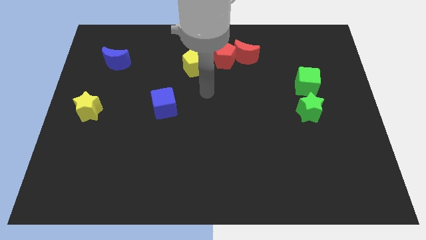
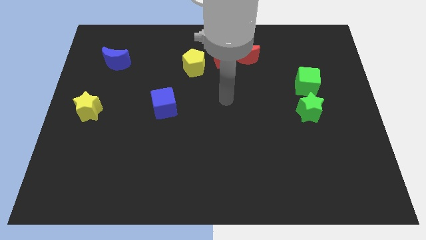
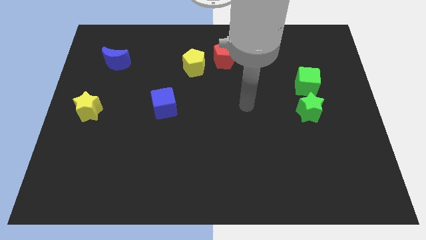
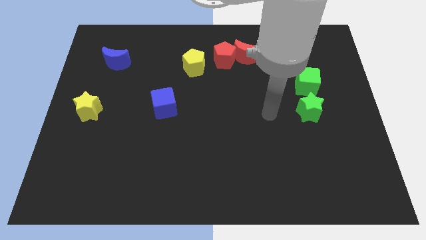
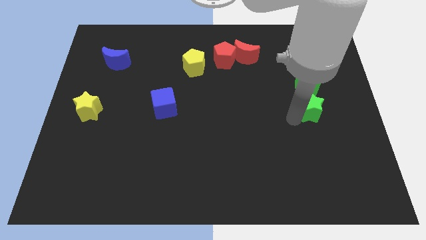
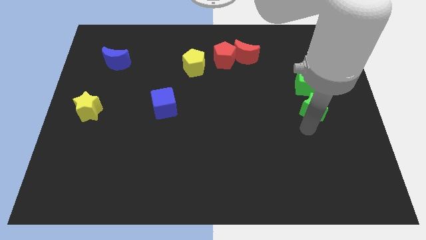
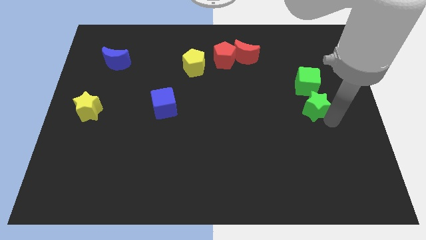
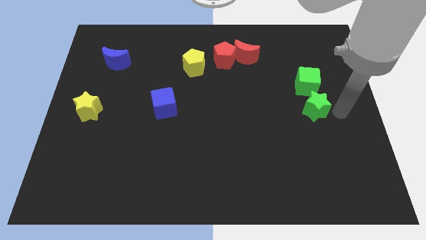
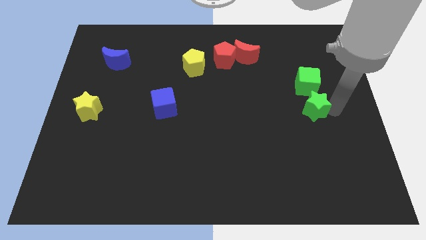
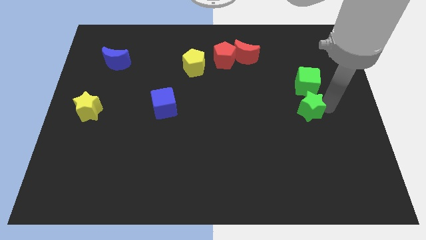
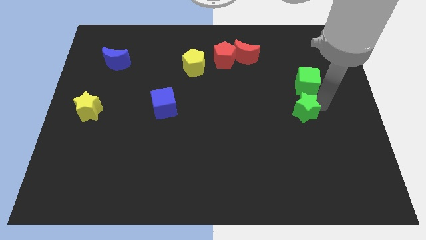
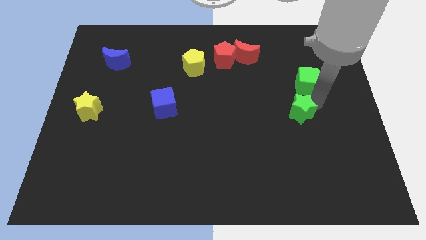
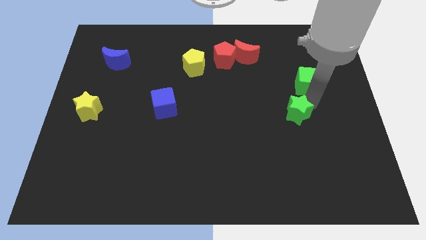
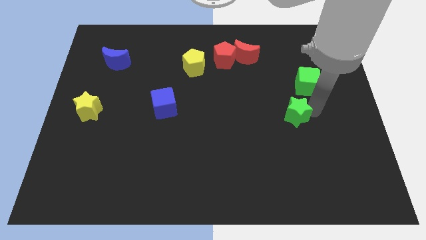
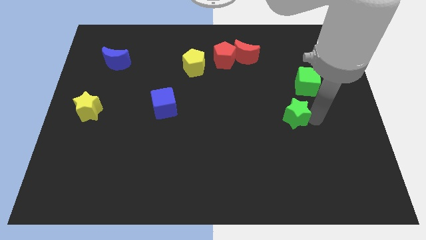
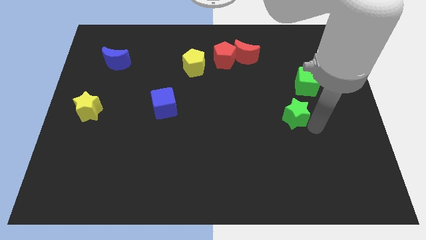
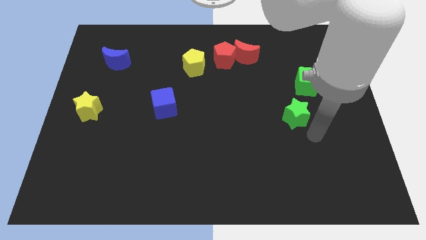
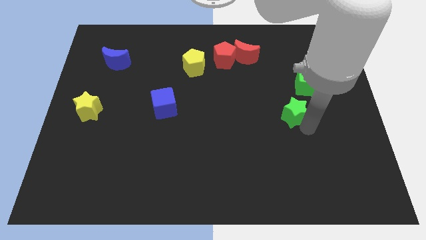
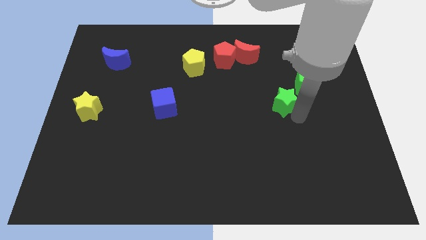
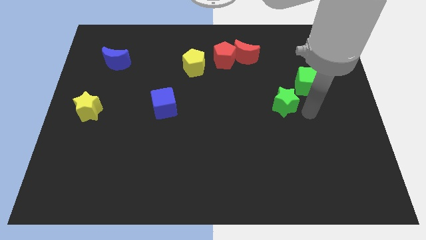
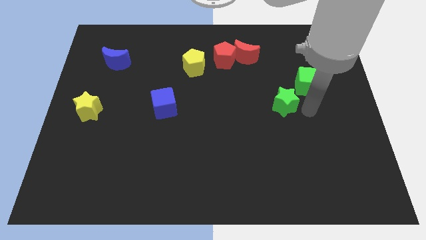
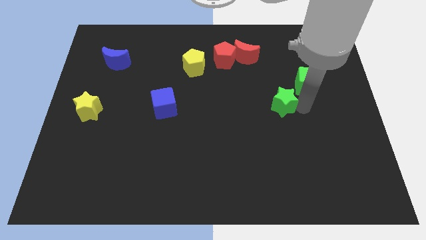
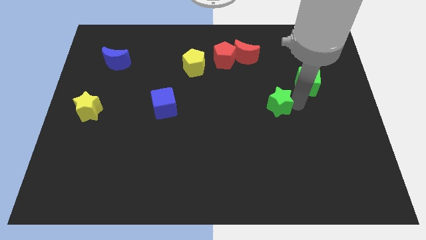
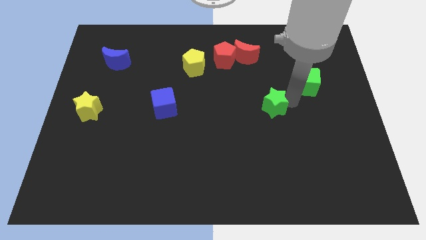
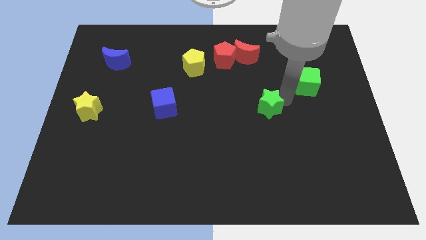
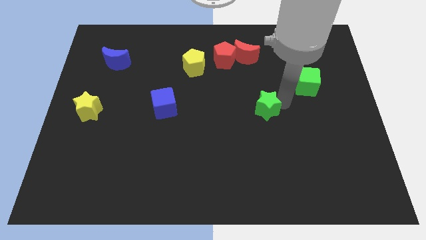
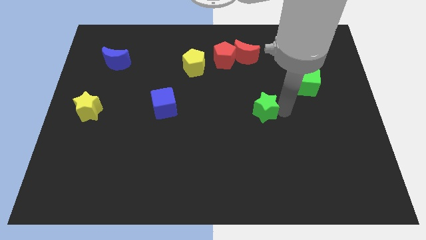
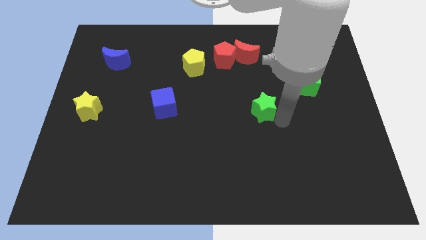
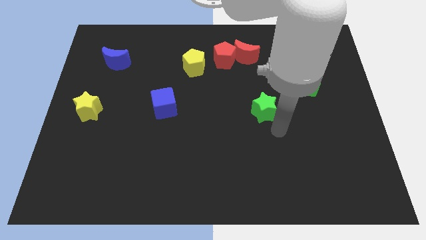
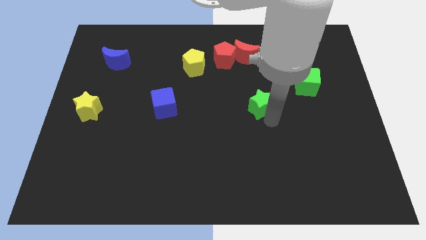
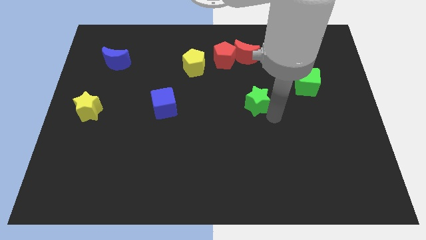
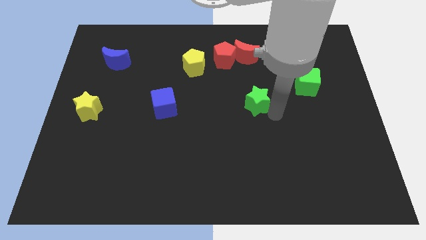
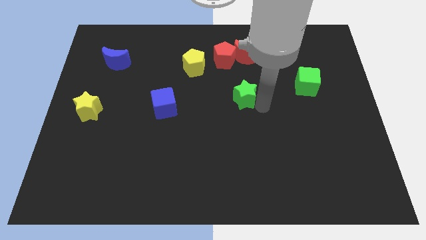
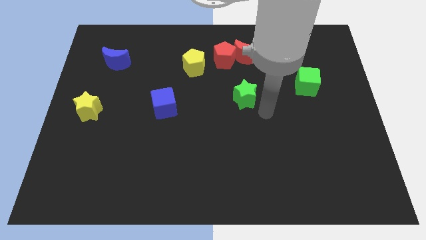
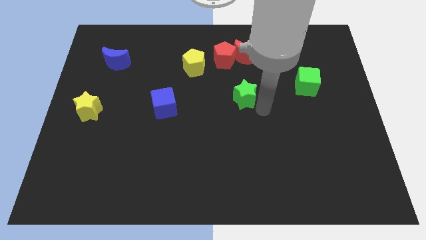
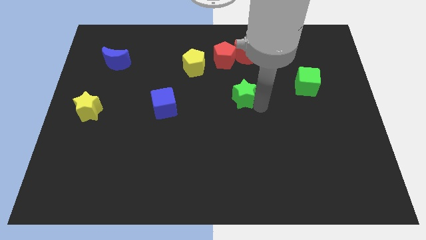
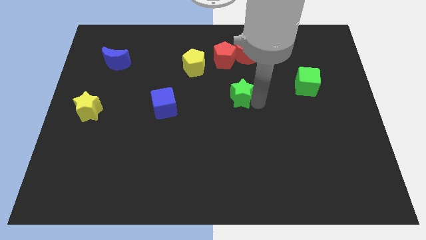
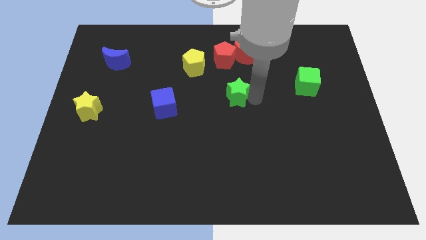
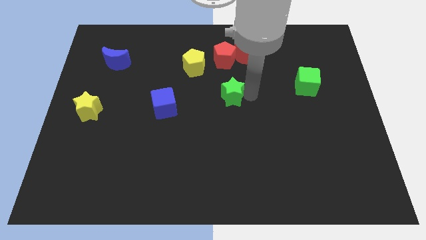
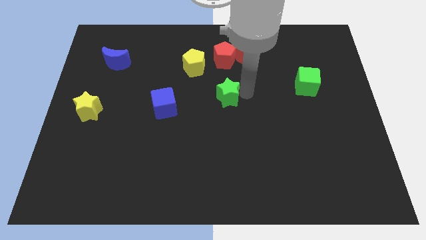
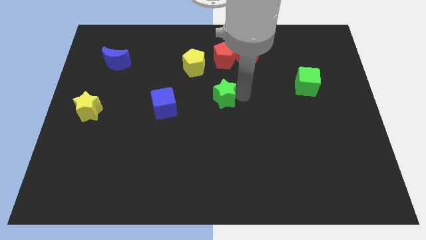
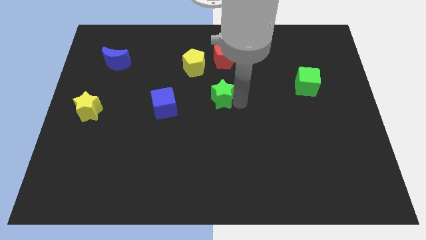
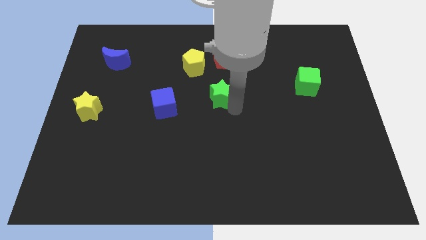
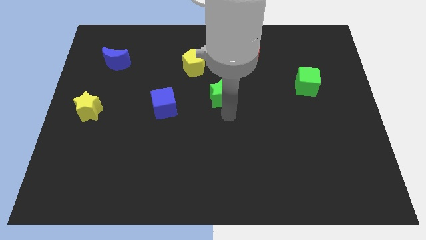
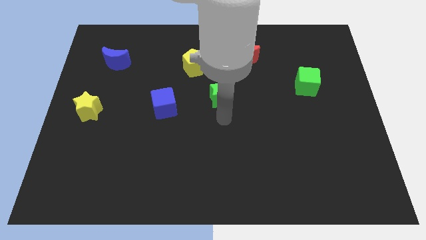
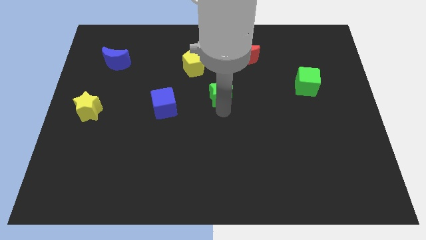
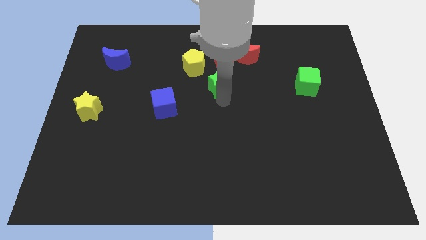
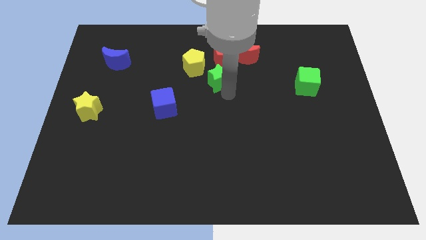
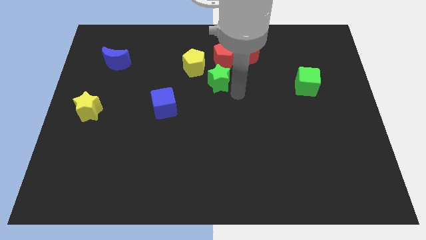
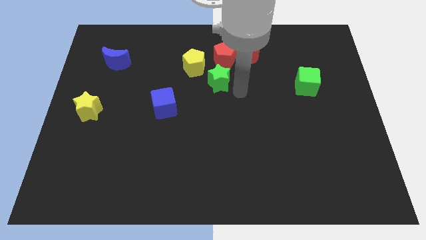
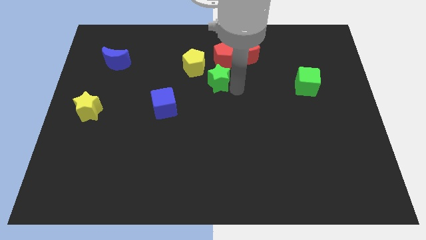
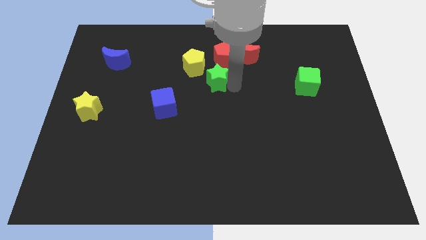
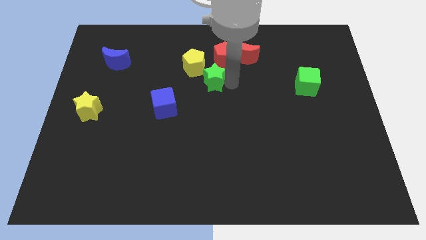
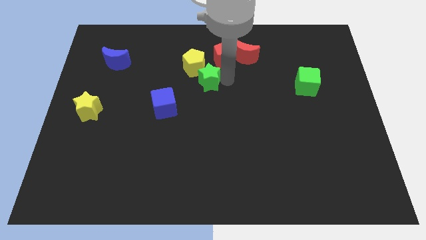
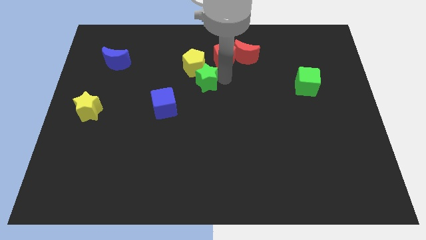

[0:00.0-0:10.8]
slide the green star next to the yellow pentagon

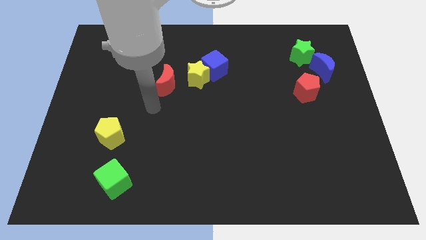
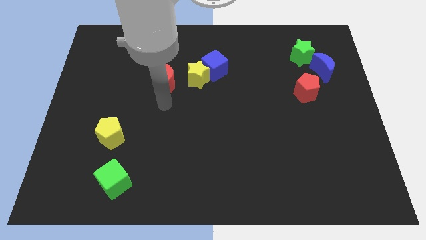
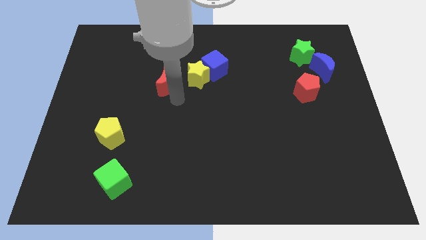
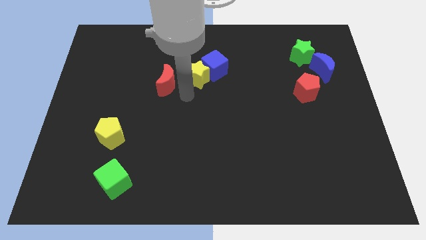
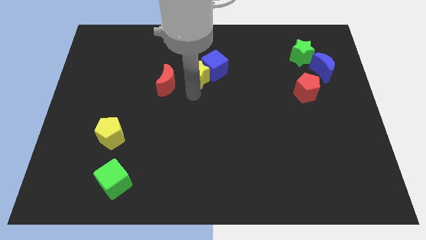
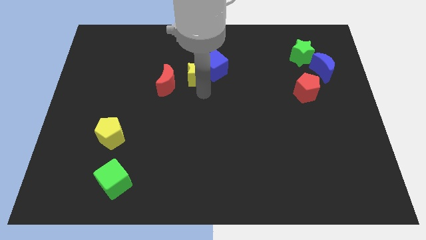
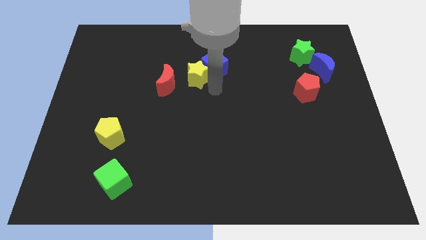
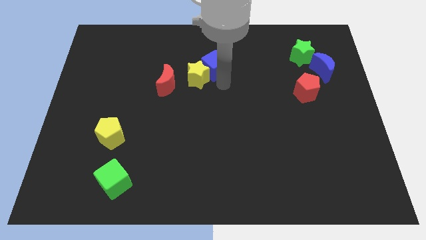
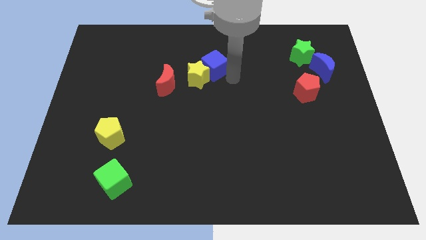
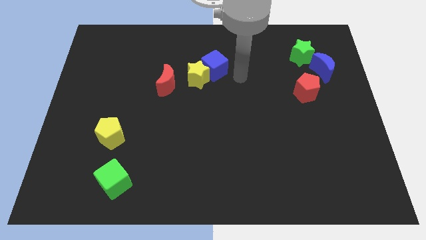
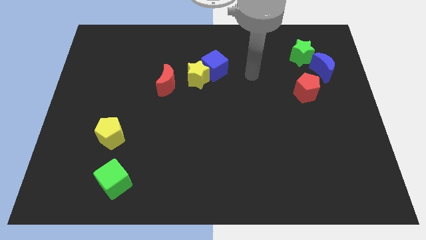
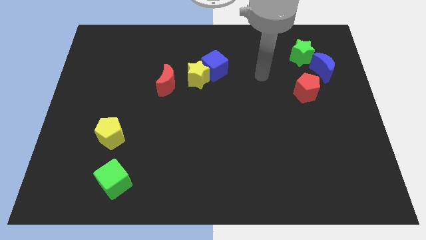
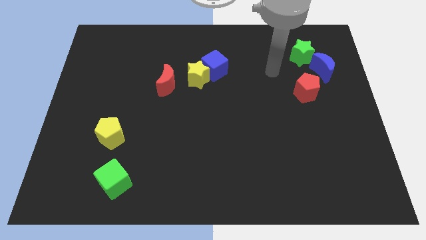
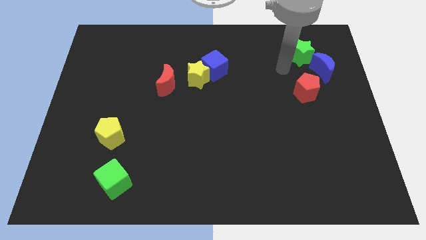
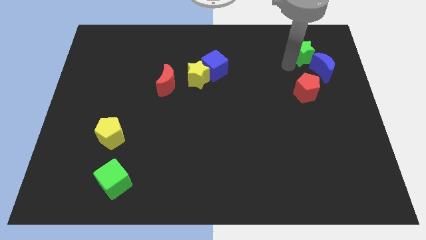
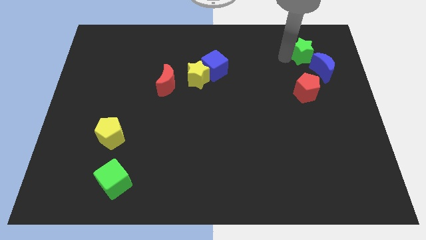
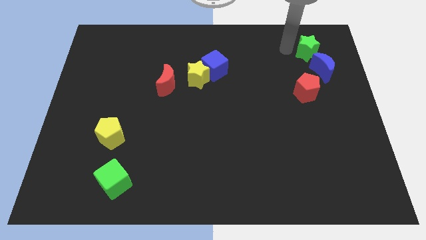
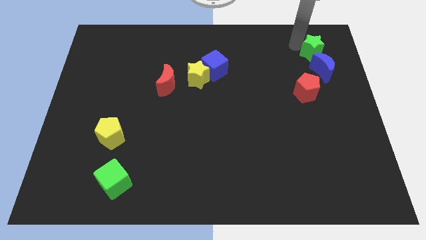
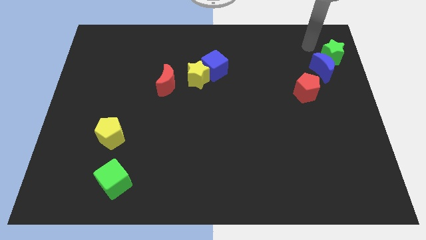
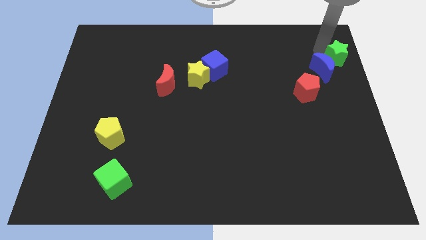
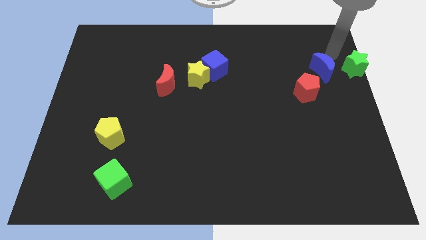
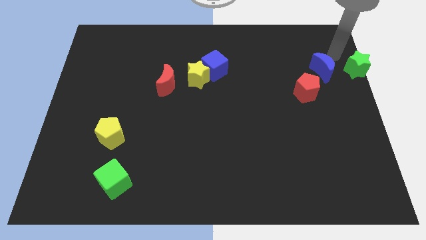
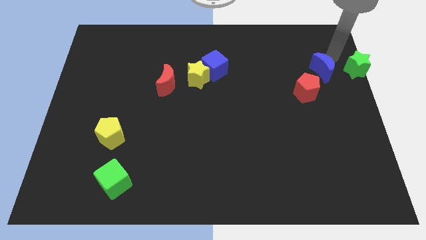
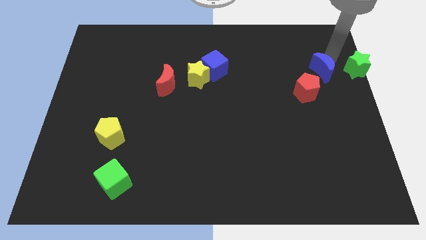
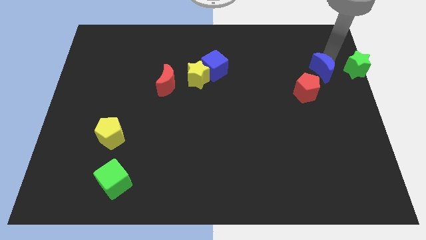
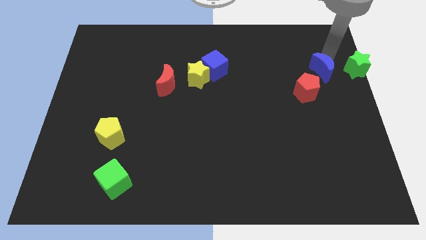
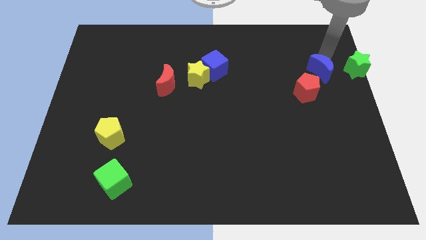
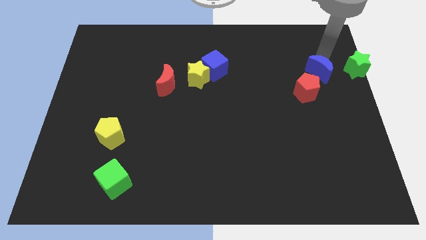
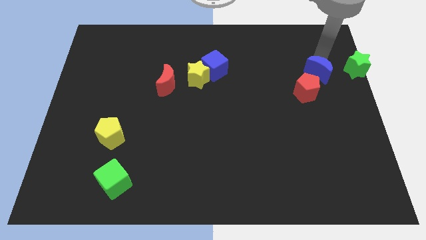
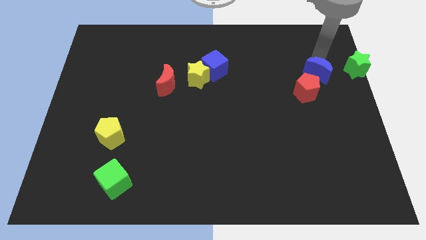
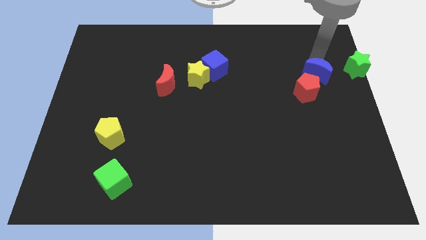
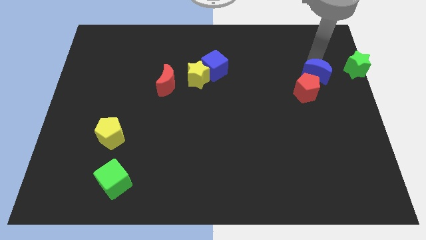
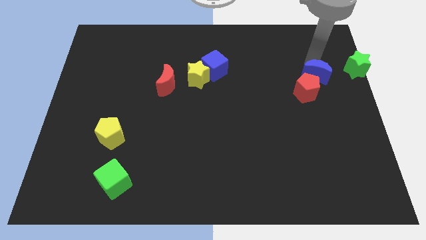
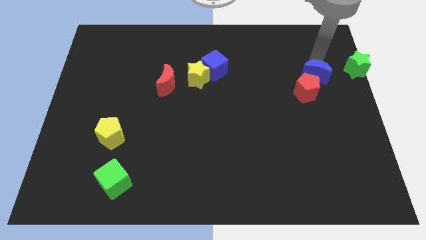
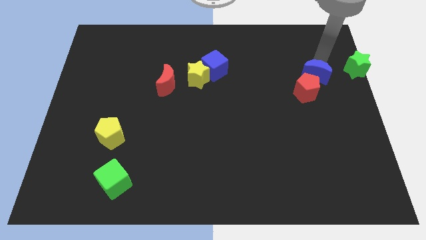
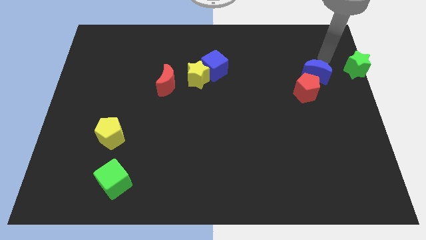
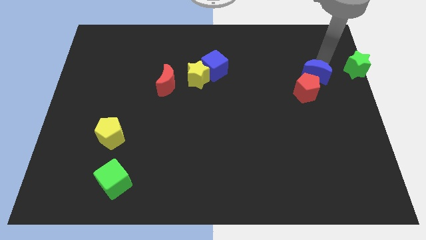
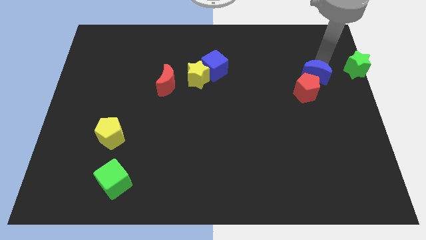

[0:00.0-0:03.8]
slide the blue moon to the red pentagon
